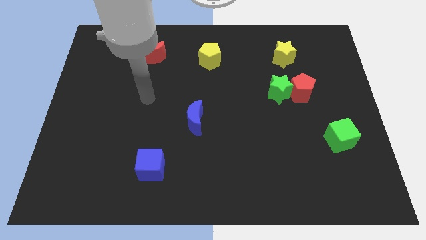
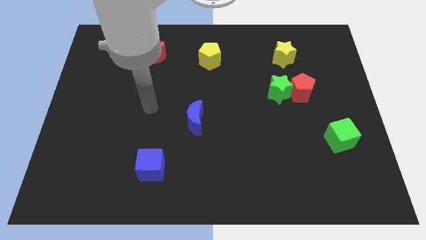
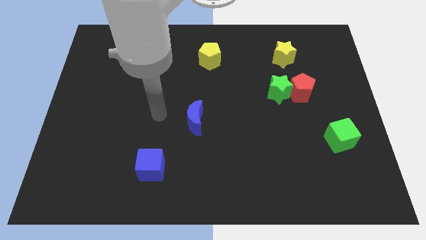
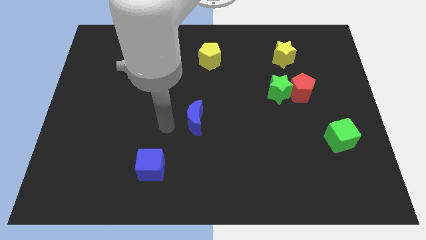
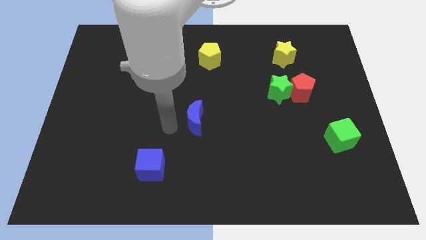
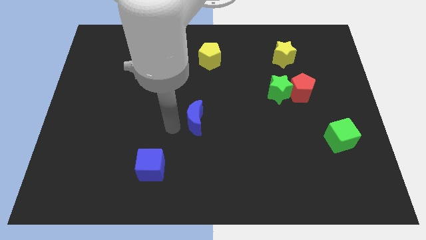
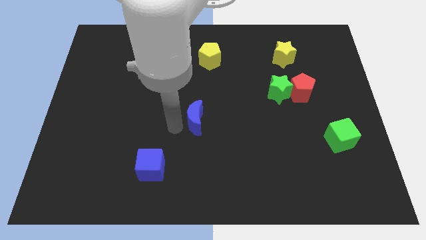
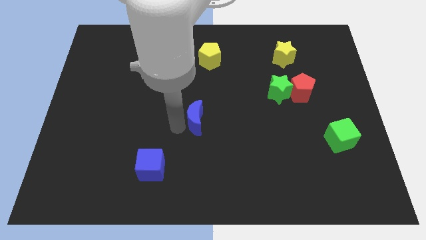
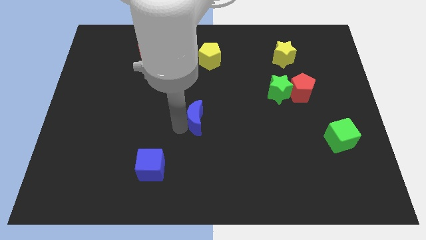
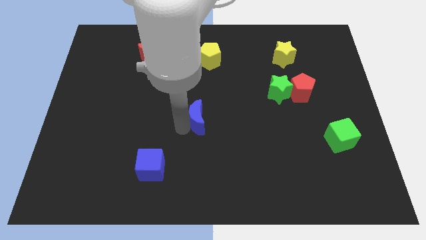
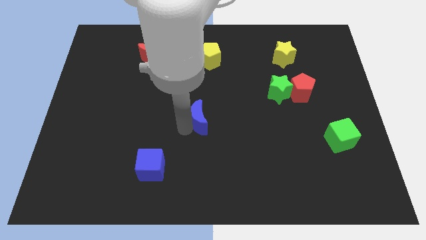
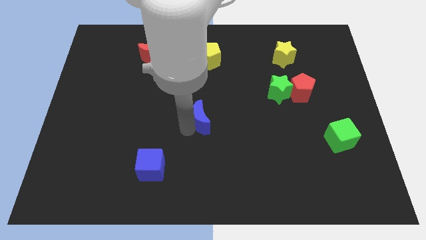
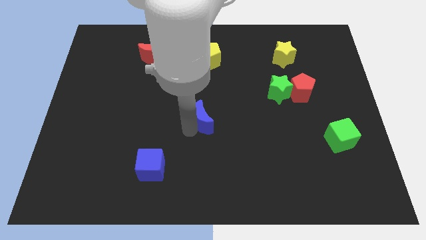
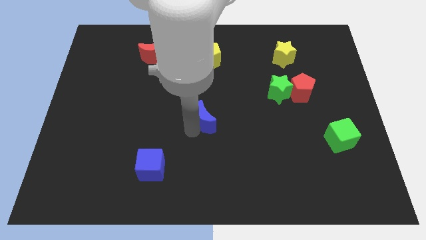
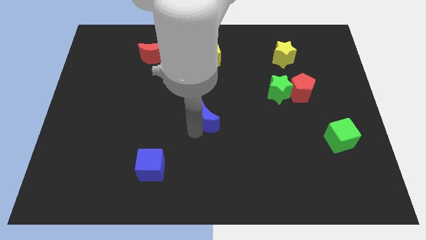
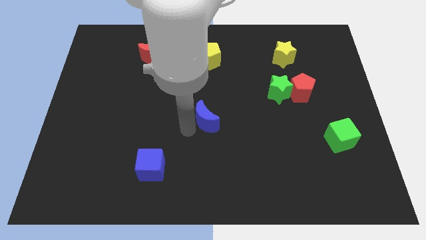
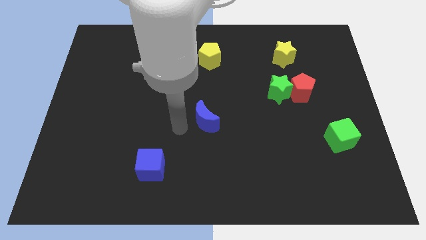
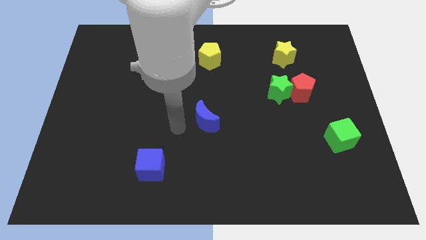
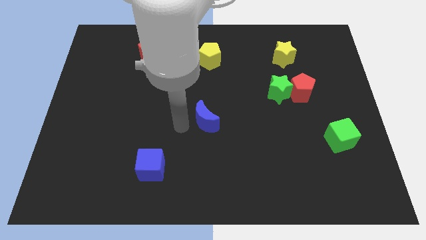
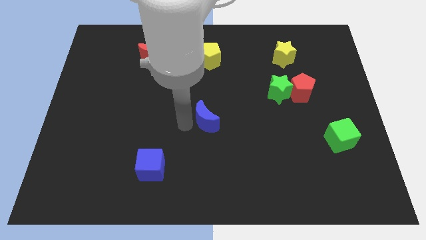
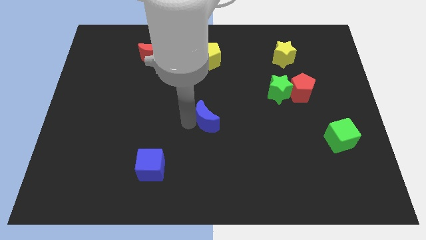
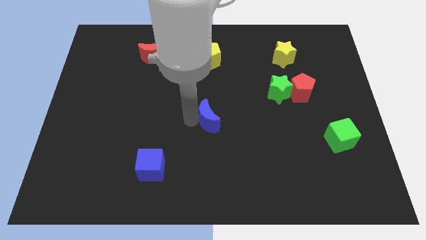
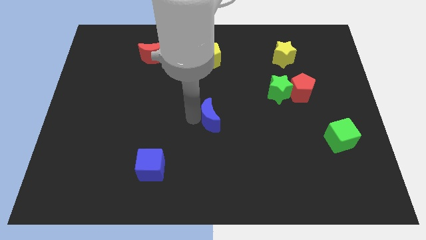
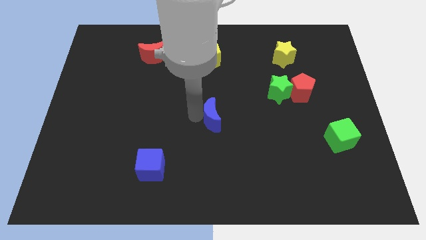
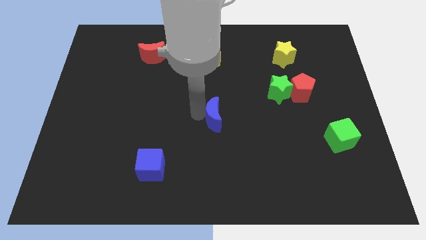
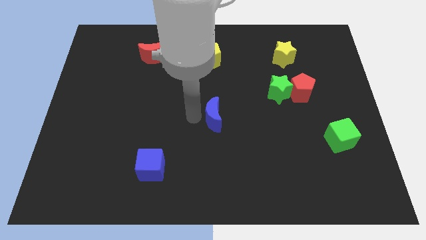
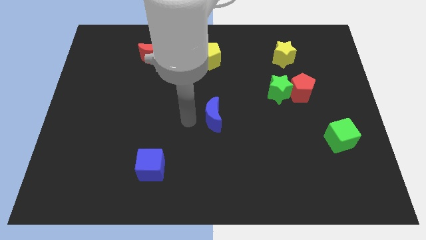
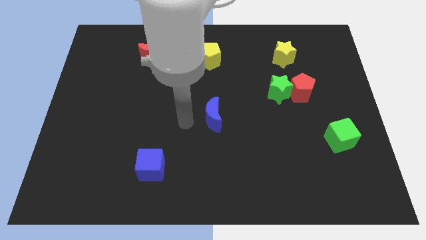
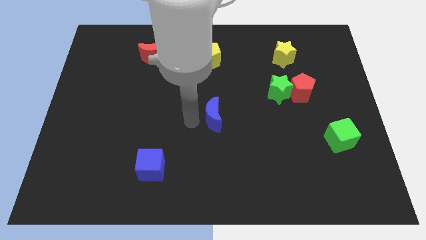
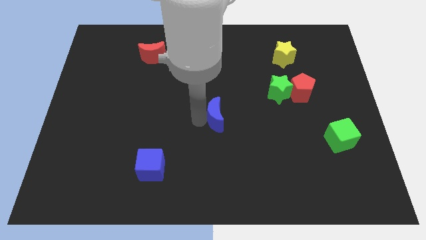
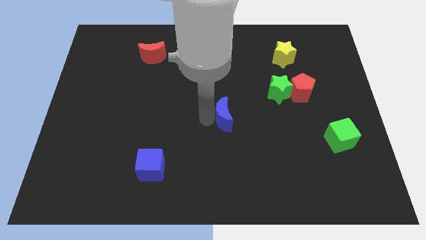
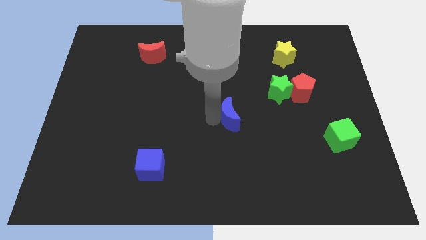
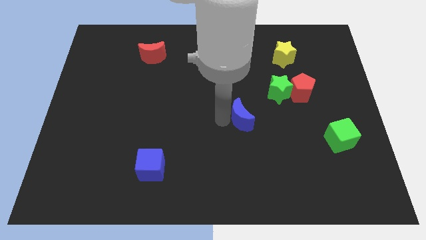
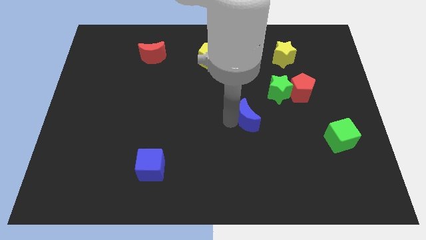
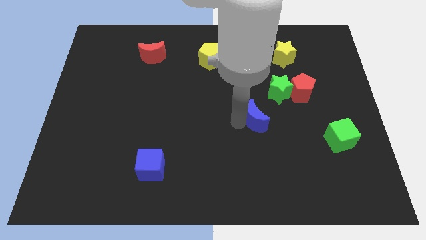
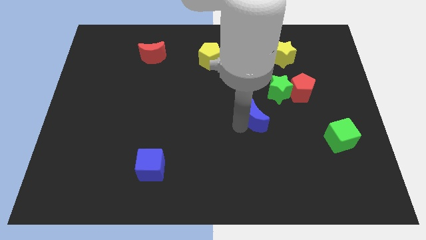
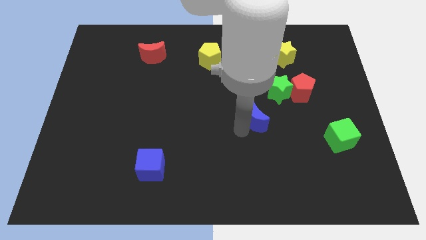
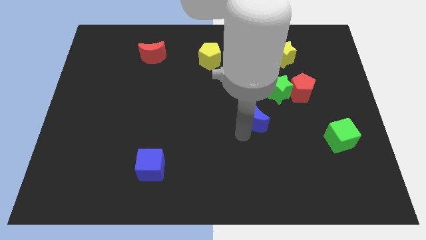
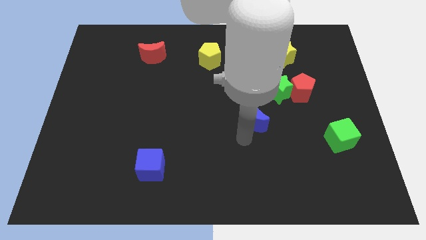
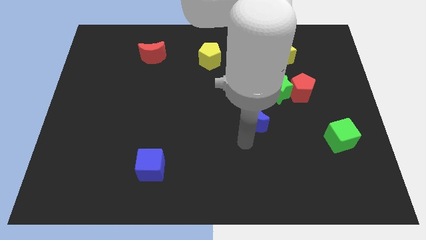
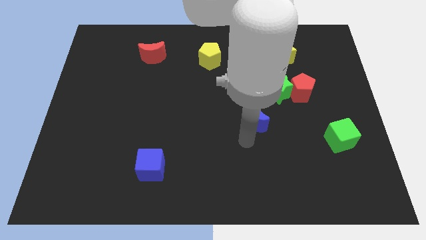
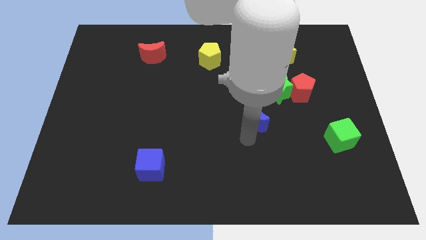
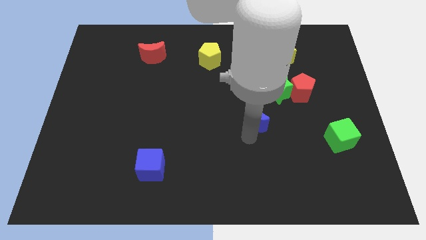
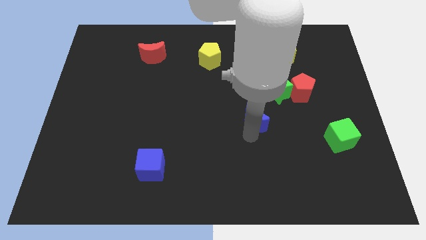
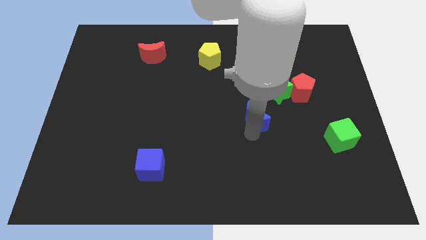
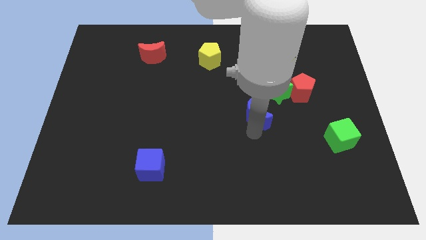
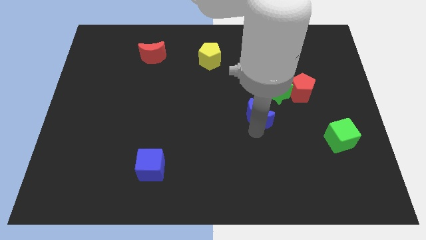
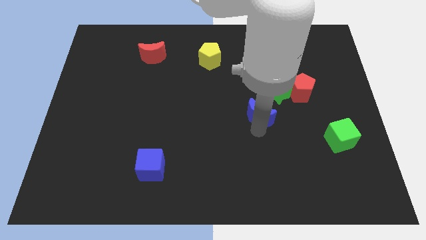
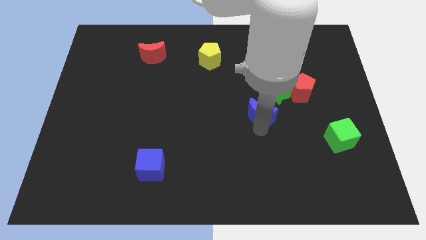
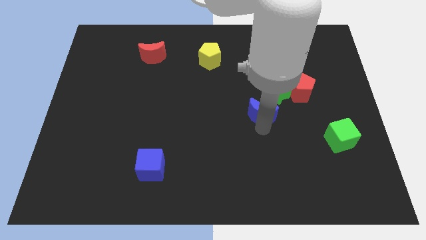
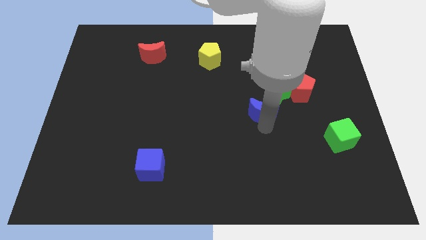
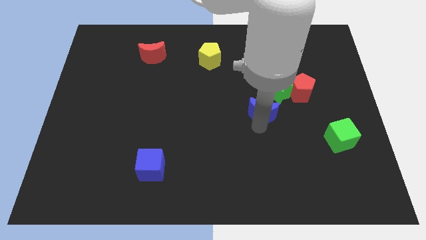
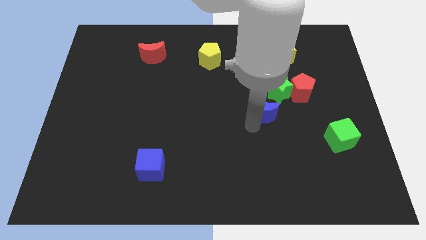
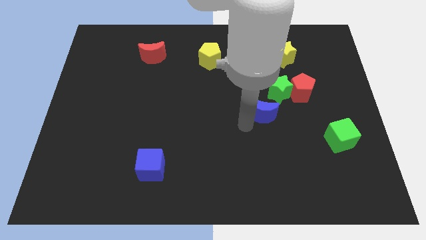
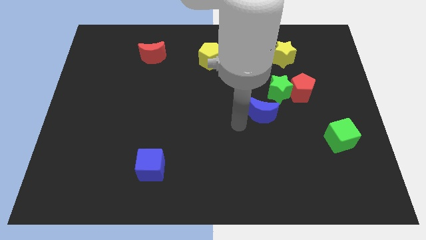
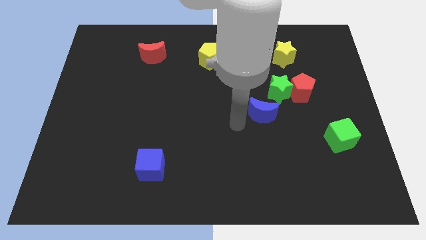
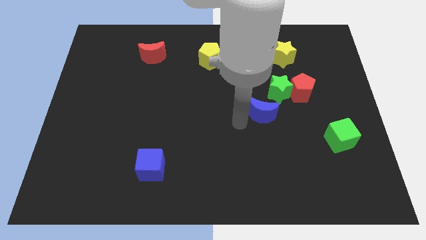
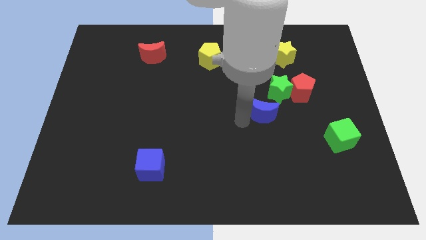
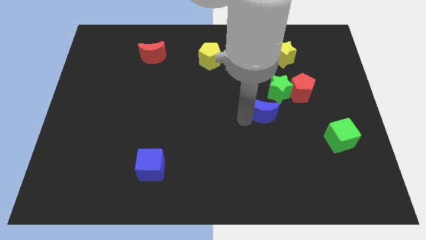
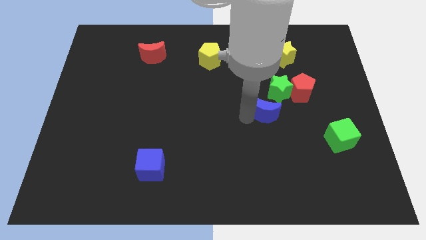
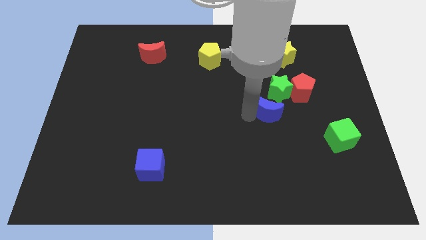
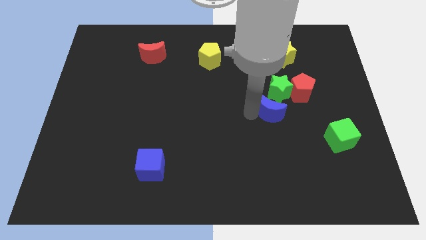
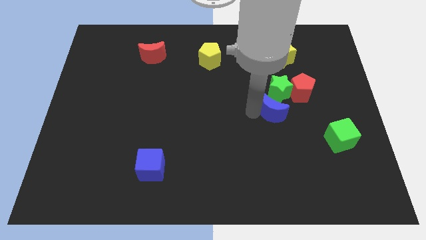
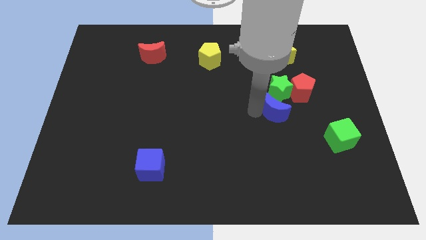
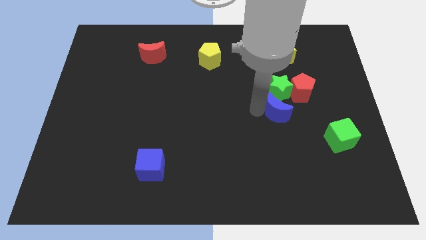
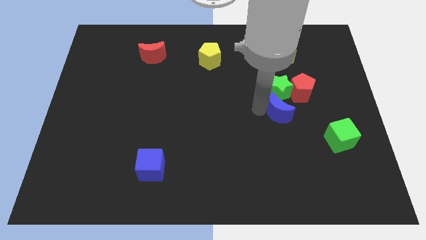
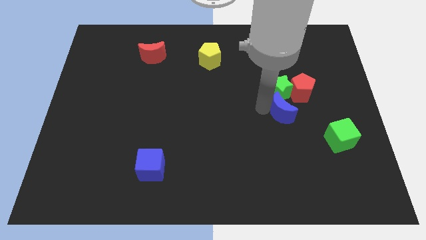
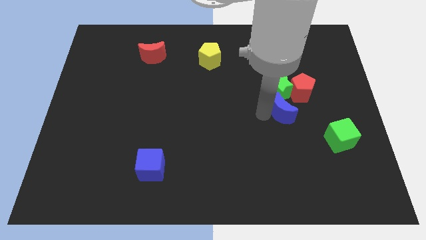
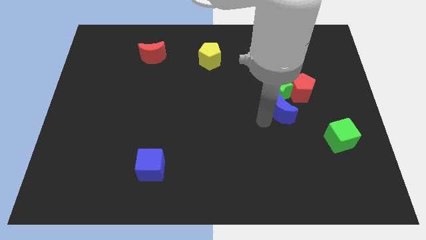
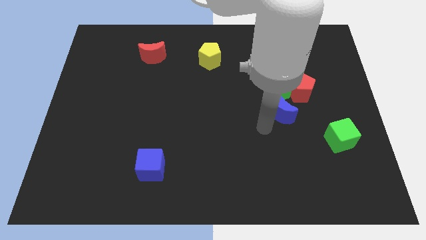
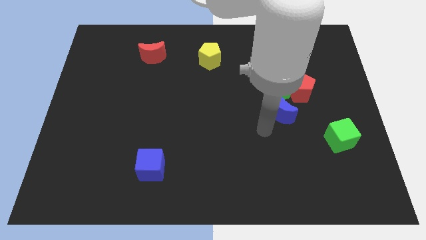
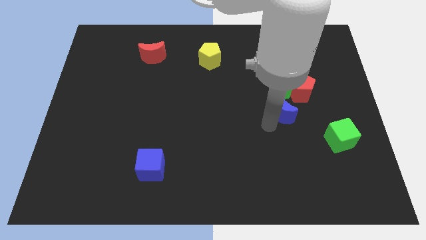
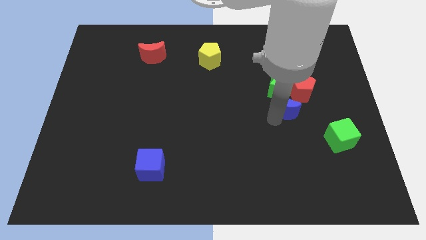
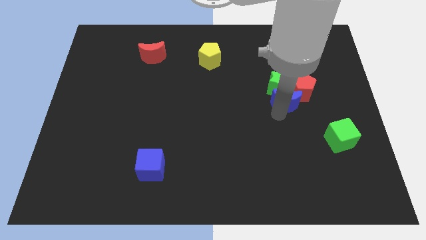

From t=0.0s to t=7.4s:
move the blue moon towards the red pentagon
